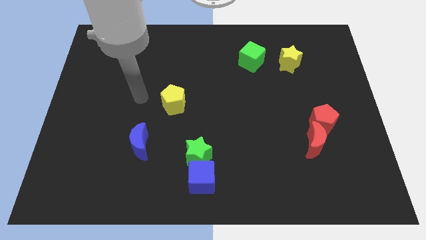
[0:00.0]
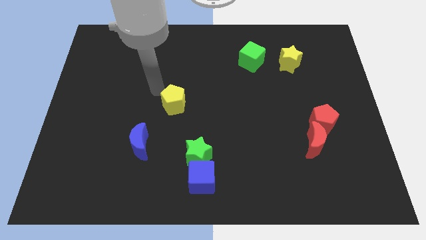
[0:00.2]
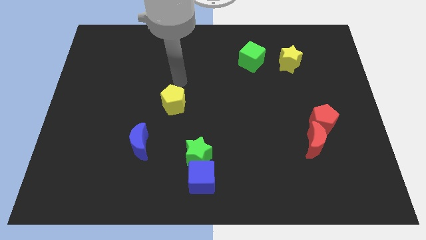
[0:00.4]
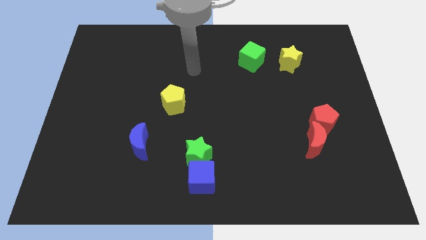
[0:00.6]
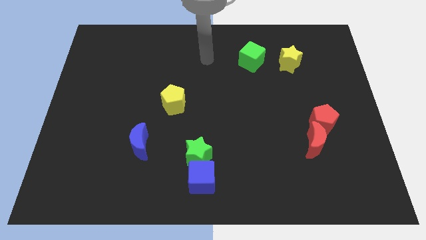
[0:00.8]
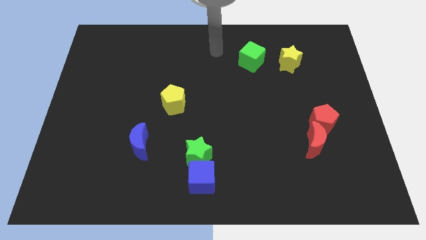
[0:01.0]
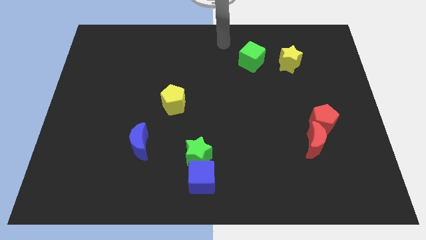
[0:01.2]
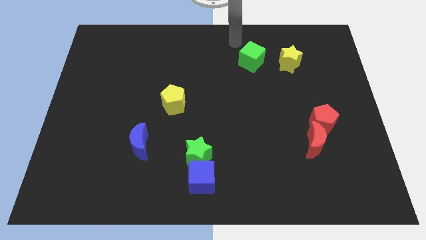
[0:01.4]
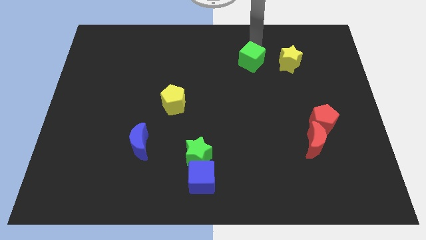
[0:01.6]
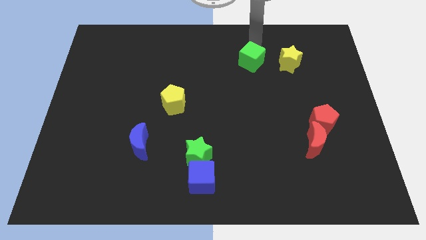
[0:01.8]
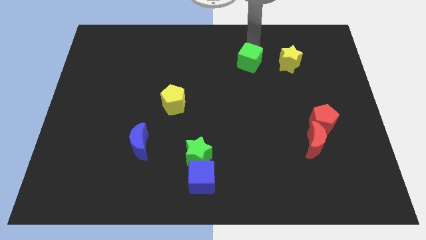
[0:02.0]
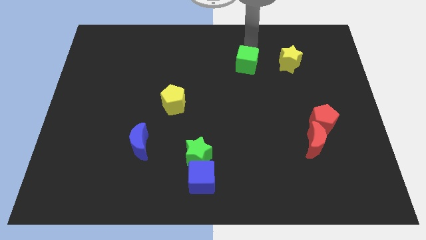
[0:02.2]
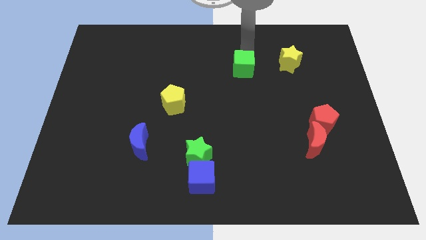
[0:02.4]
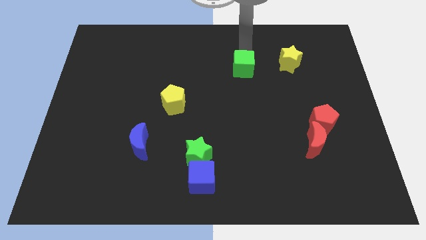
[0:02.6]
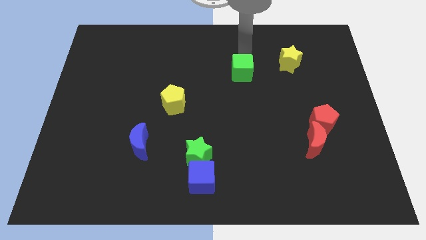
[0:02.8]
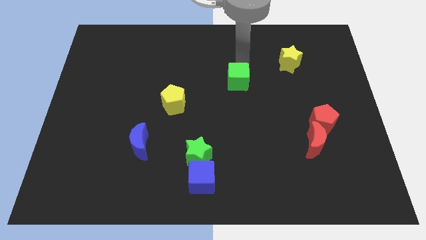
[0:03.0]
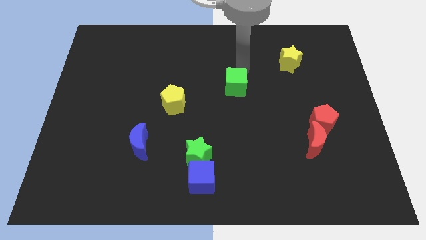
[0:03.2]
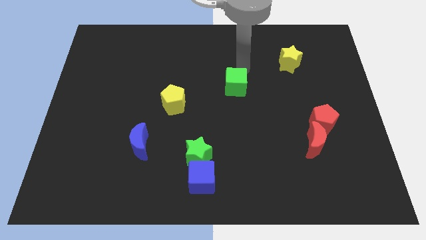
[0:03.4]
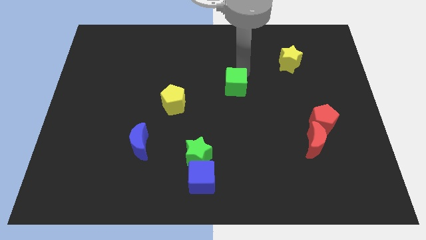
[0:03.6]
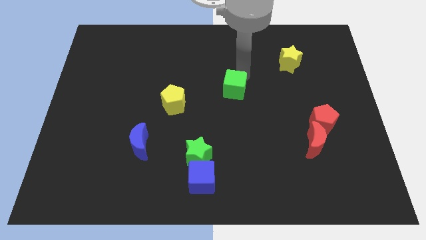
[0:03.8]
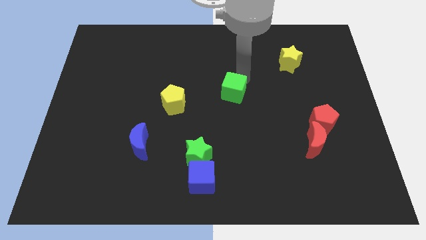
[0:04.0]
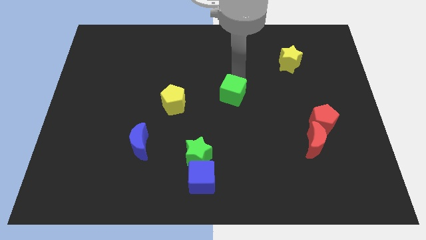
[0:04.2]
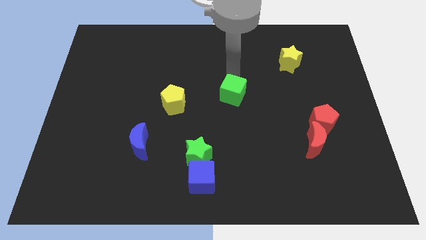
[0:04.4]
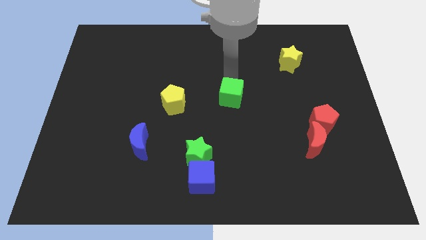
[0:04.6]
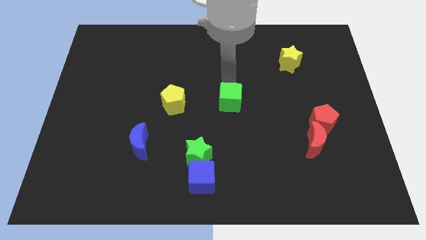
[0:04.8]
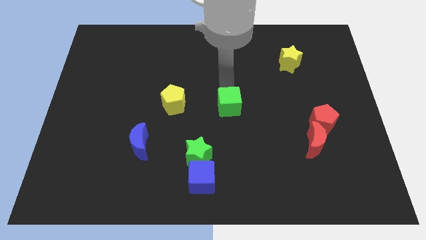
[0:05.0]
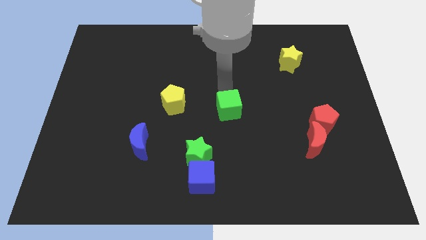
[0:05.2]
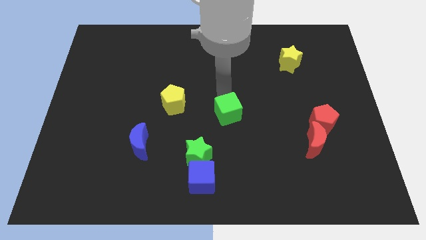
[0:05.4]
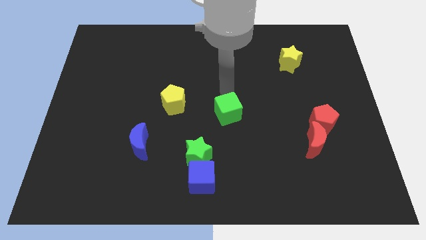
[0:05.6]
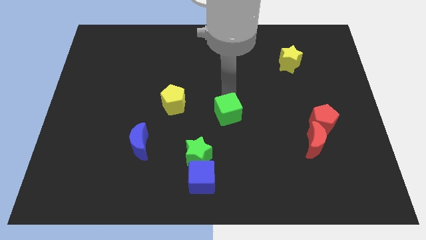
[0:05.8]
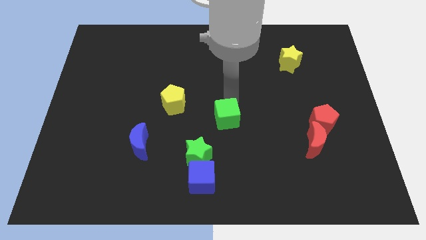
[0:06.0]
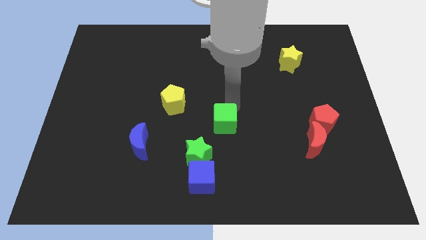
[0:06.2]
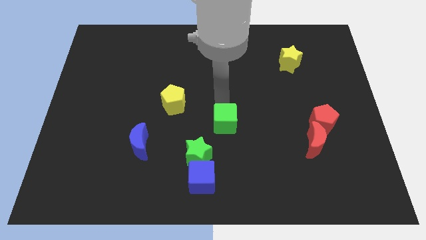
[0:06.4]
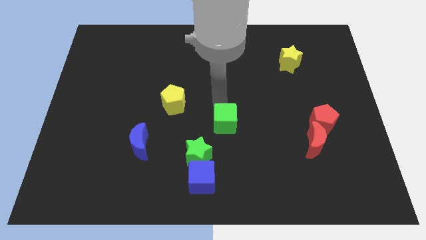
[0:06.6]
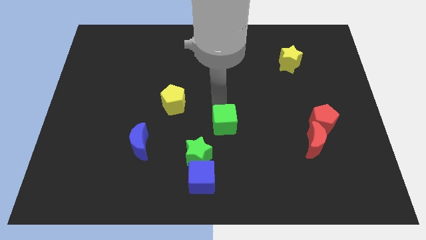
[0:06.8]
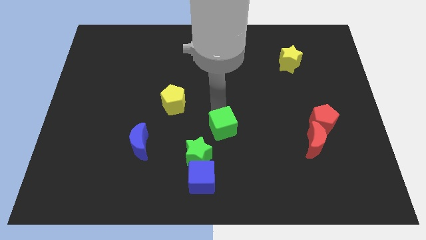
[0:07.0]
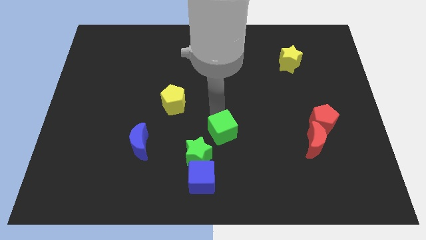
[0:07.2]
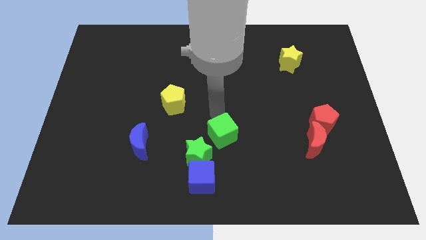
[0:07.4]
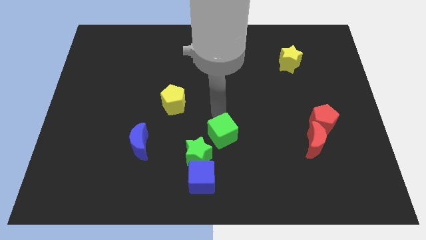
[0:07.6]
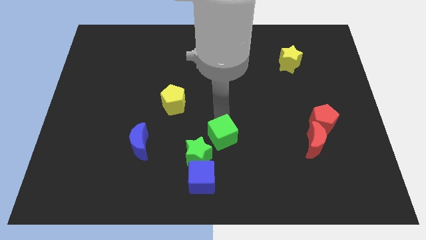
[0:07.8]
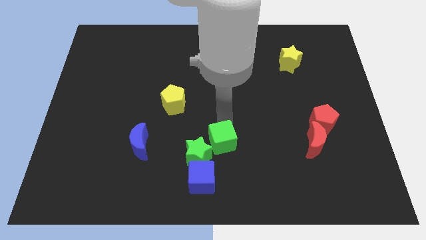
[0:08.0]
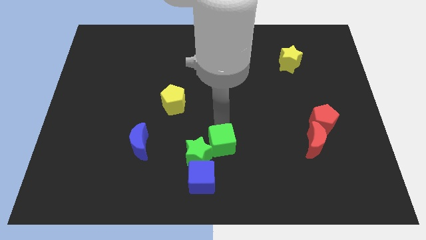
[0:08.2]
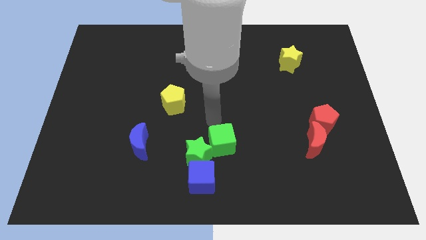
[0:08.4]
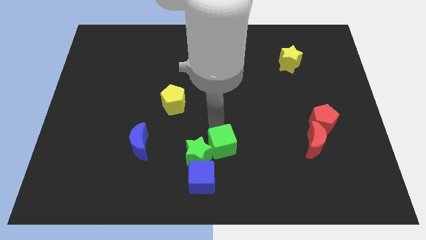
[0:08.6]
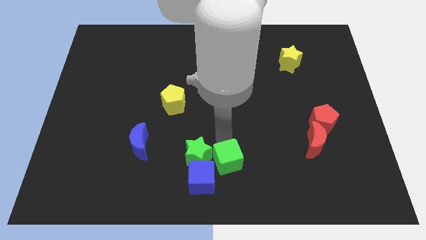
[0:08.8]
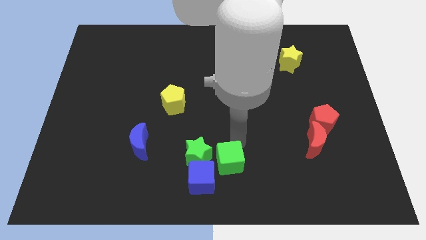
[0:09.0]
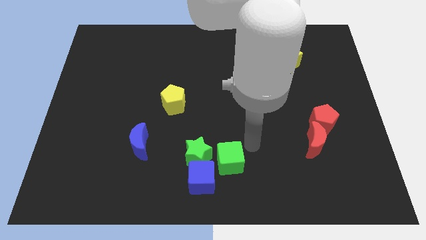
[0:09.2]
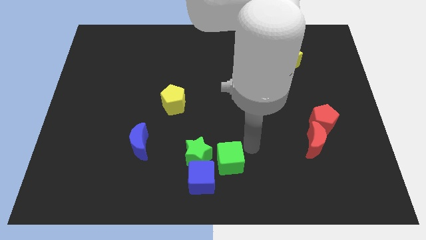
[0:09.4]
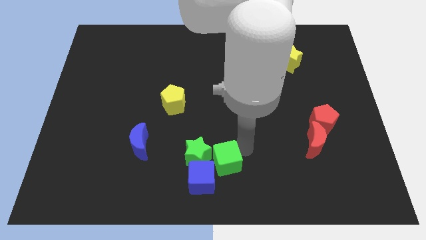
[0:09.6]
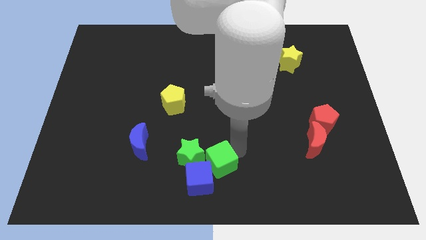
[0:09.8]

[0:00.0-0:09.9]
push the green cube next to the blue cube

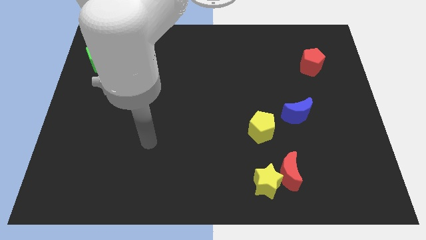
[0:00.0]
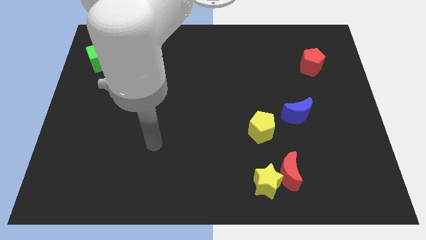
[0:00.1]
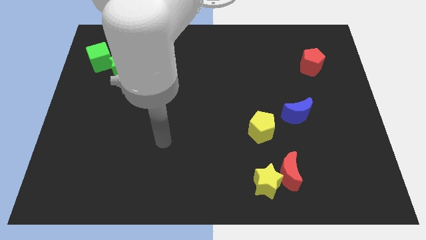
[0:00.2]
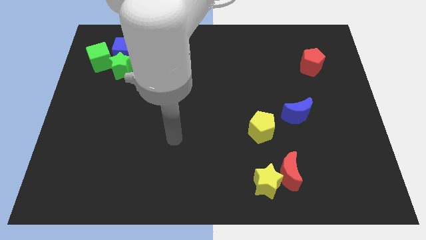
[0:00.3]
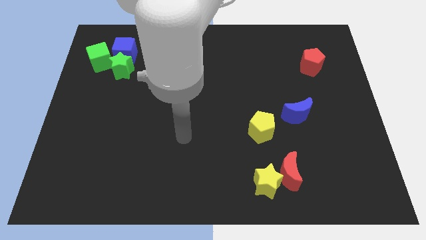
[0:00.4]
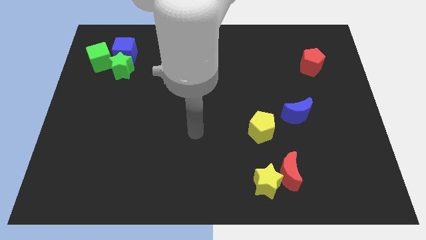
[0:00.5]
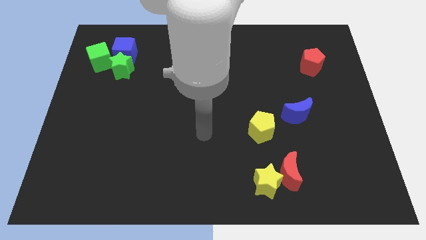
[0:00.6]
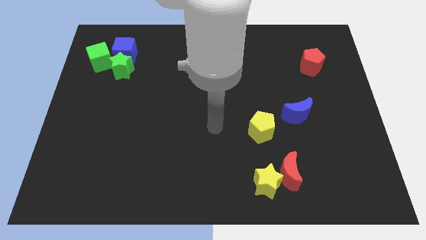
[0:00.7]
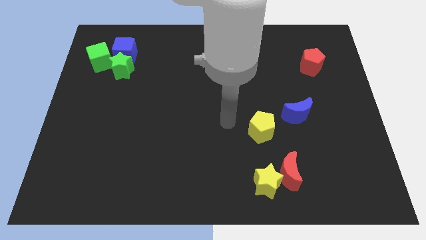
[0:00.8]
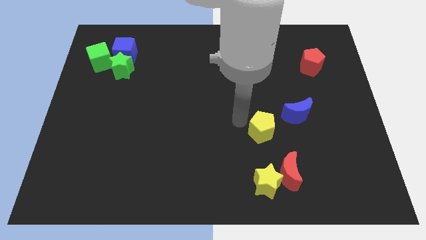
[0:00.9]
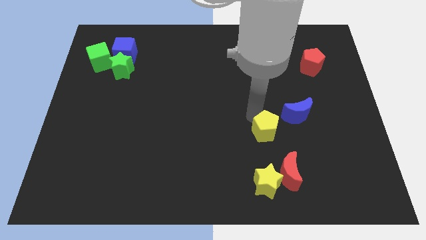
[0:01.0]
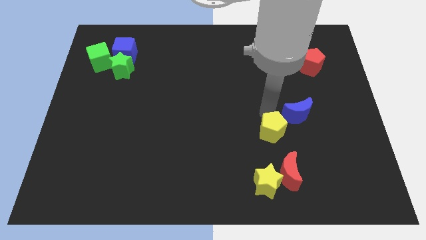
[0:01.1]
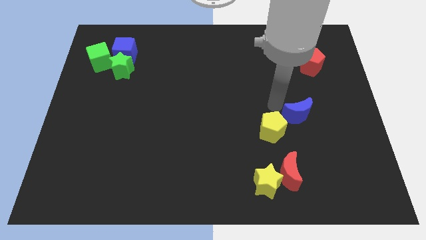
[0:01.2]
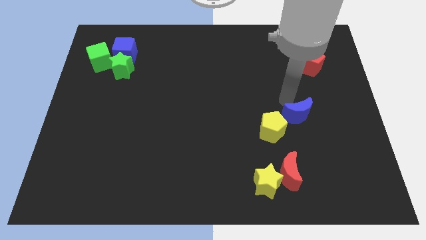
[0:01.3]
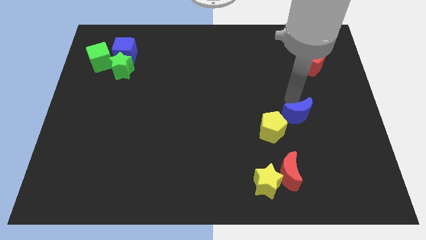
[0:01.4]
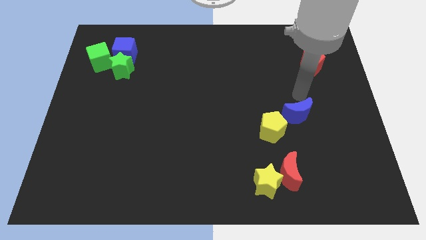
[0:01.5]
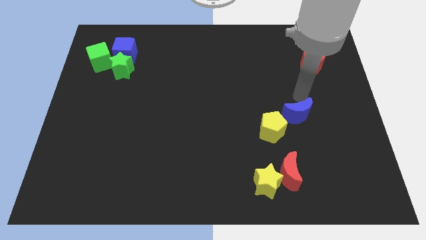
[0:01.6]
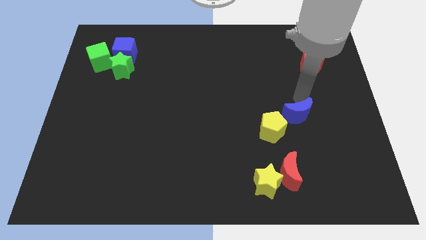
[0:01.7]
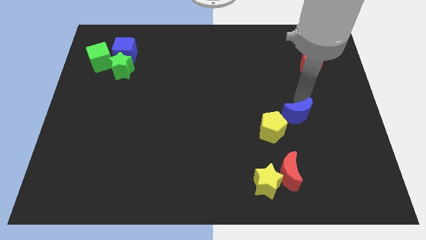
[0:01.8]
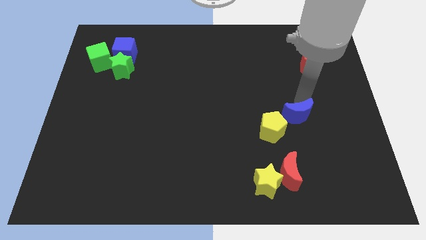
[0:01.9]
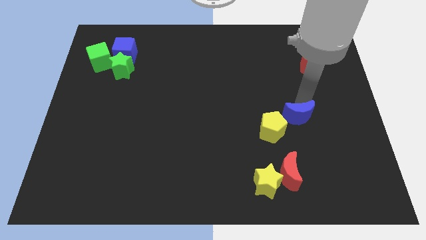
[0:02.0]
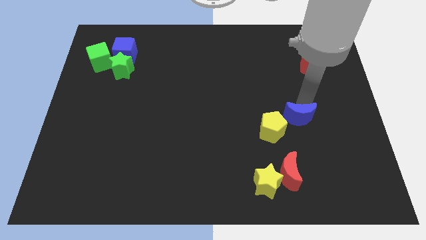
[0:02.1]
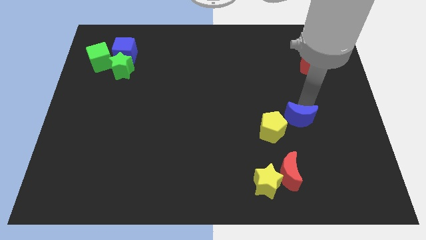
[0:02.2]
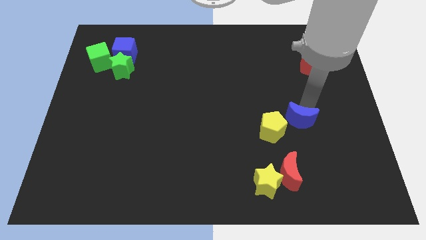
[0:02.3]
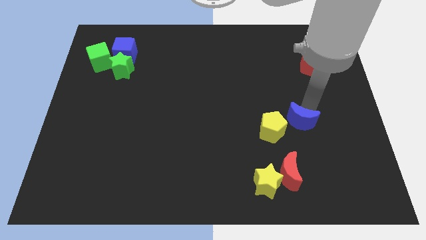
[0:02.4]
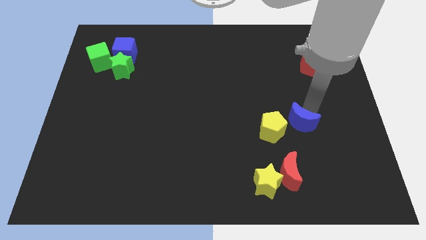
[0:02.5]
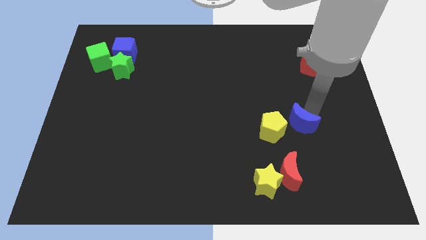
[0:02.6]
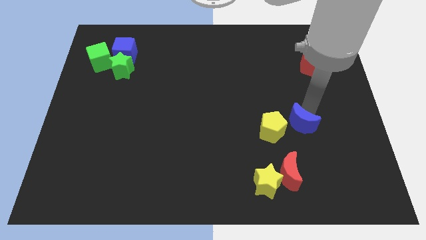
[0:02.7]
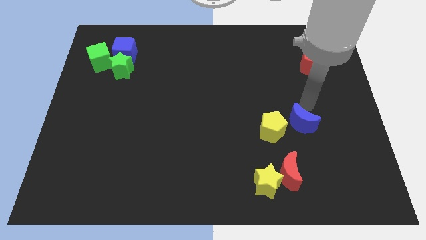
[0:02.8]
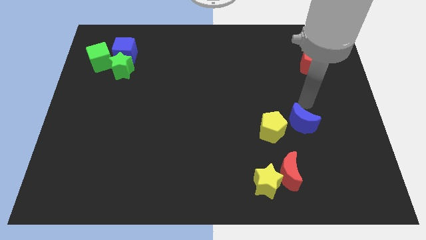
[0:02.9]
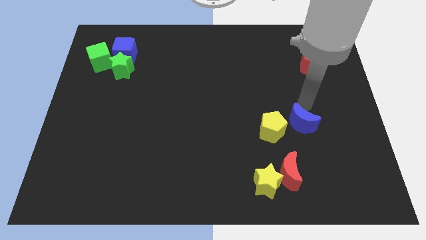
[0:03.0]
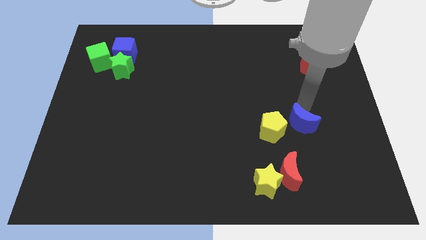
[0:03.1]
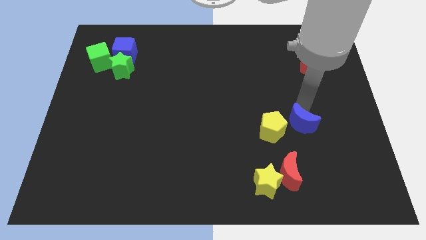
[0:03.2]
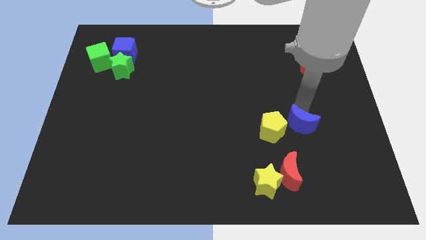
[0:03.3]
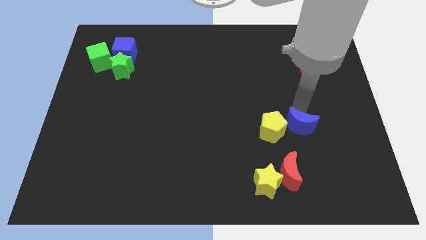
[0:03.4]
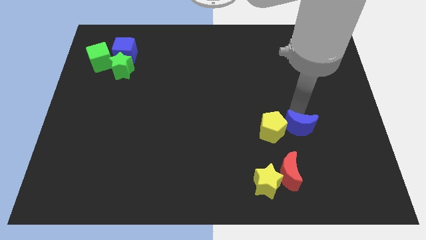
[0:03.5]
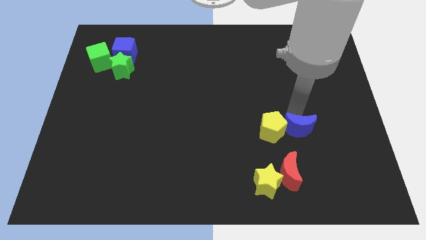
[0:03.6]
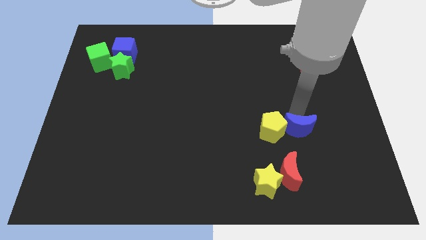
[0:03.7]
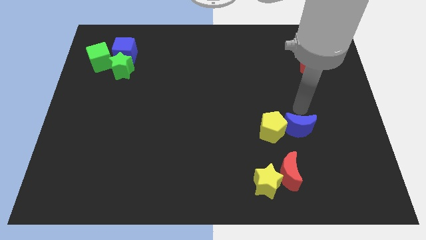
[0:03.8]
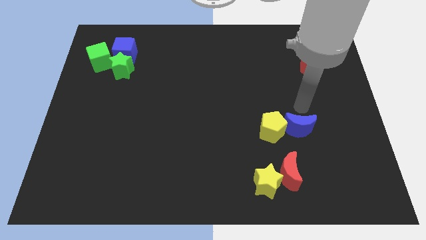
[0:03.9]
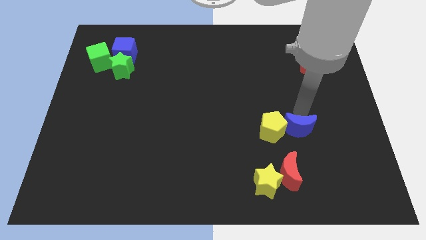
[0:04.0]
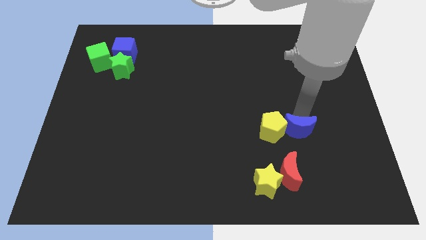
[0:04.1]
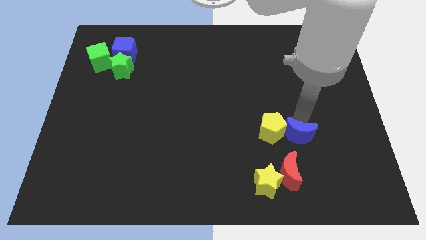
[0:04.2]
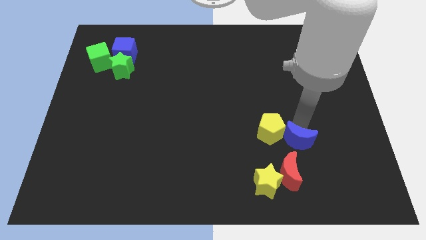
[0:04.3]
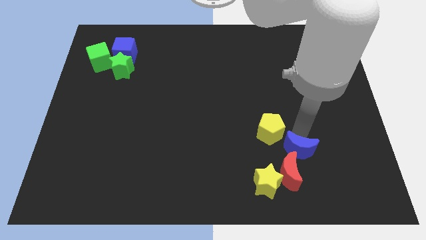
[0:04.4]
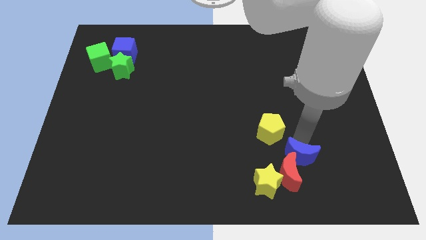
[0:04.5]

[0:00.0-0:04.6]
move the blue moon to the red moon
